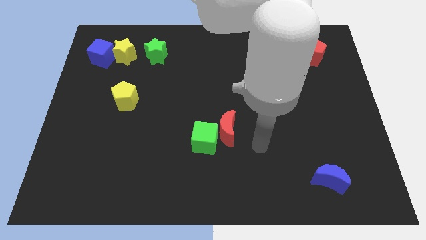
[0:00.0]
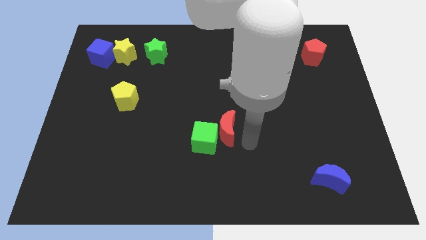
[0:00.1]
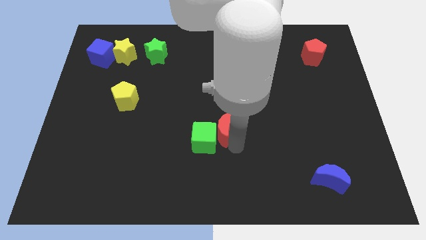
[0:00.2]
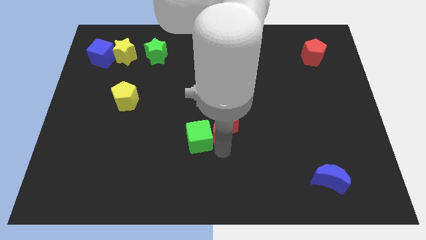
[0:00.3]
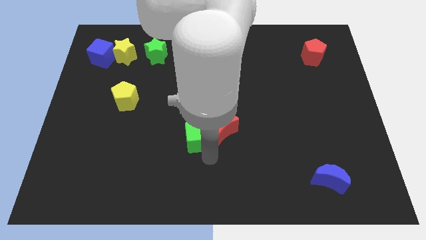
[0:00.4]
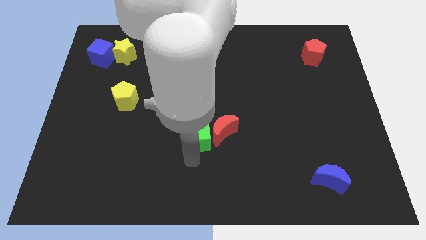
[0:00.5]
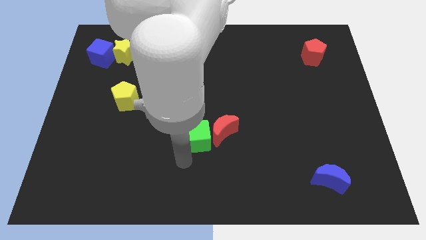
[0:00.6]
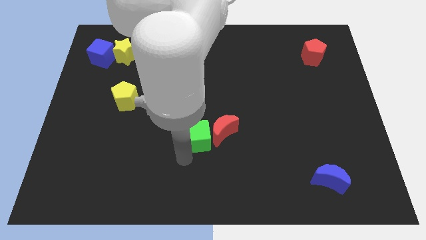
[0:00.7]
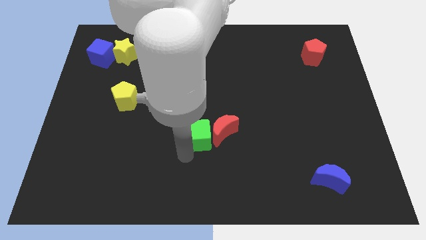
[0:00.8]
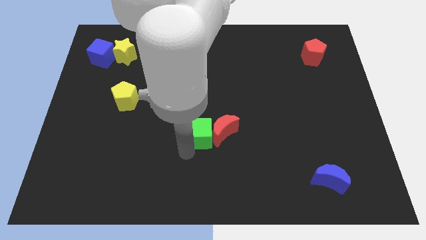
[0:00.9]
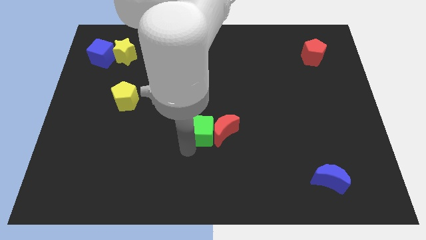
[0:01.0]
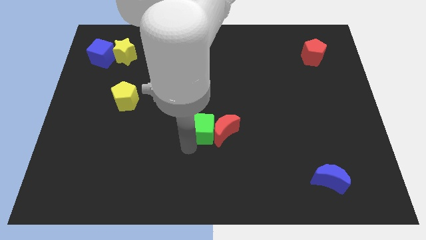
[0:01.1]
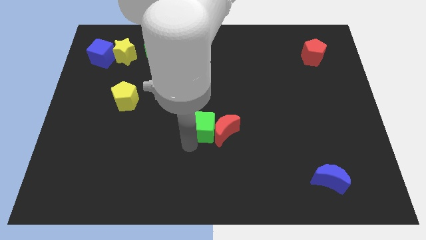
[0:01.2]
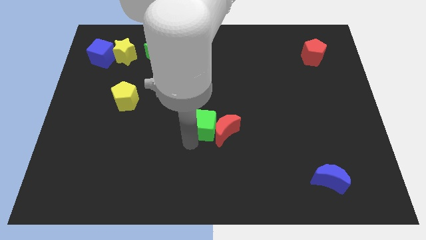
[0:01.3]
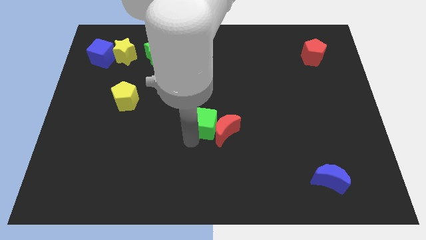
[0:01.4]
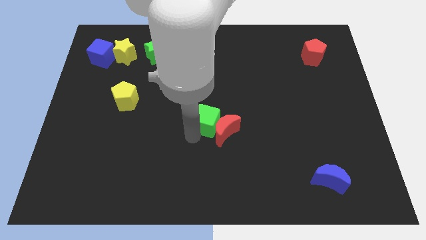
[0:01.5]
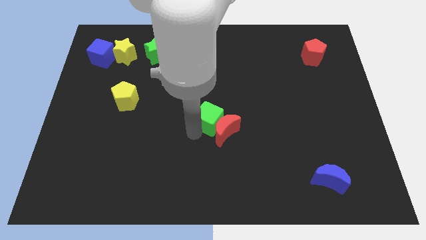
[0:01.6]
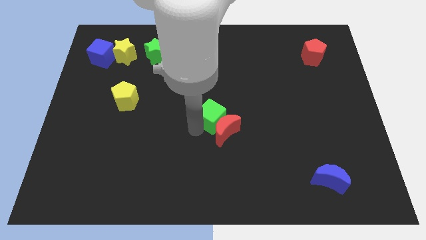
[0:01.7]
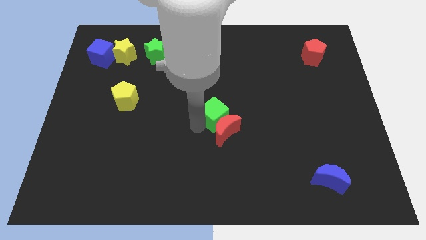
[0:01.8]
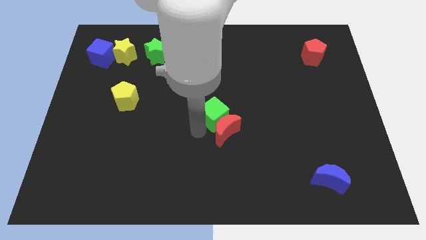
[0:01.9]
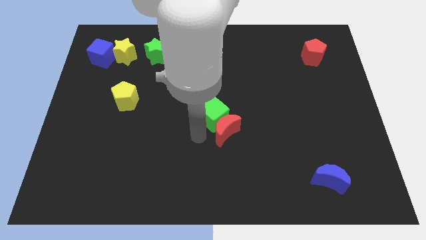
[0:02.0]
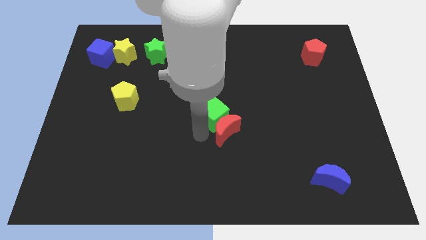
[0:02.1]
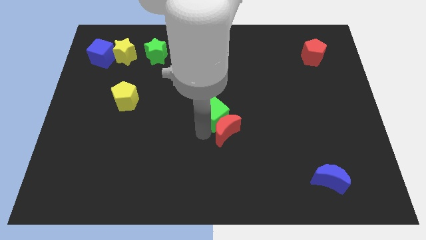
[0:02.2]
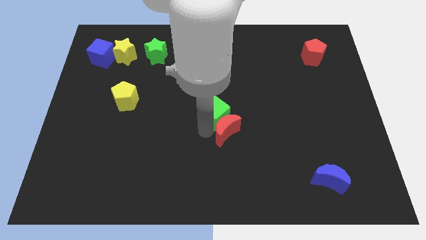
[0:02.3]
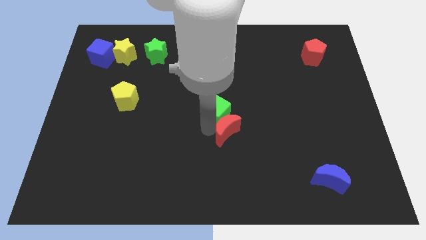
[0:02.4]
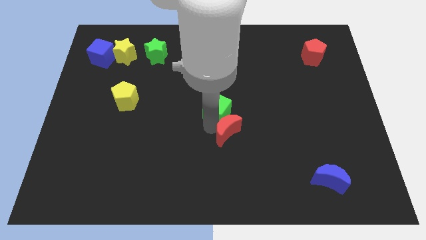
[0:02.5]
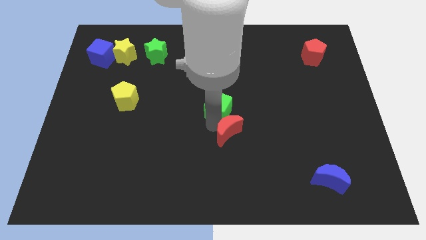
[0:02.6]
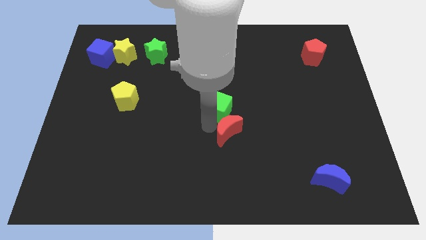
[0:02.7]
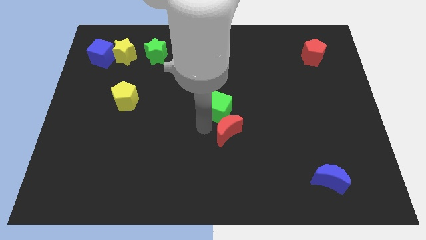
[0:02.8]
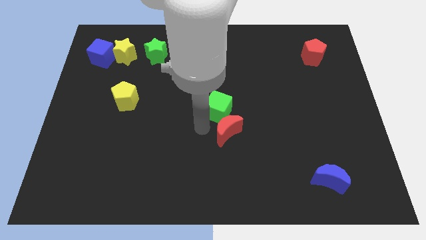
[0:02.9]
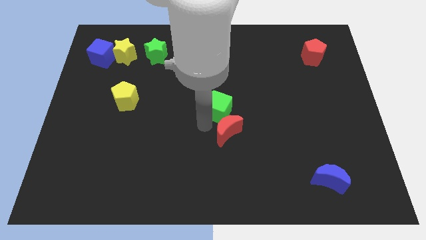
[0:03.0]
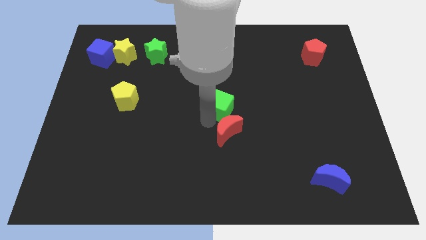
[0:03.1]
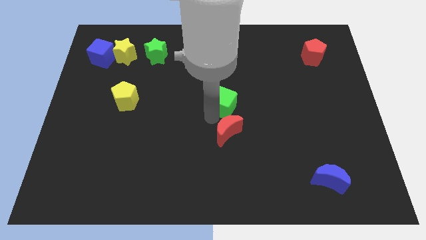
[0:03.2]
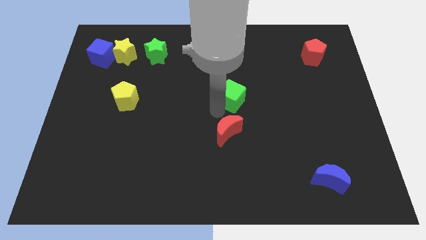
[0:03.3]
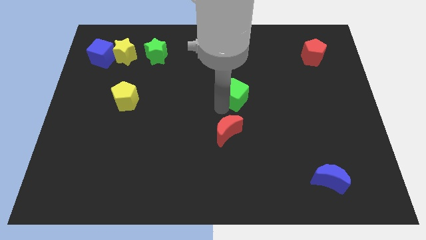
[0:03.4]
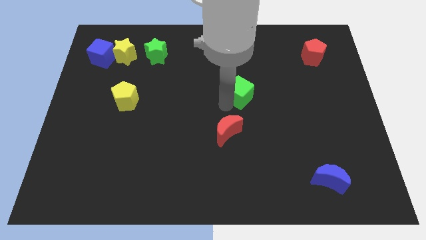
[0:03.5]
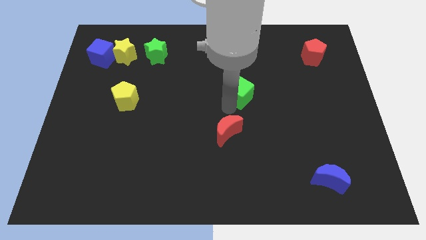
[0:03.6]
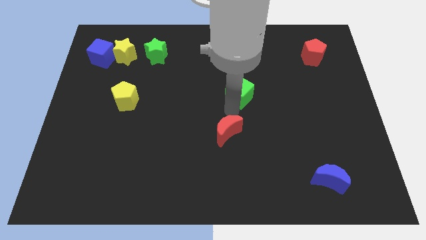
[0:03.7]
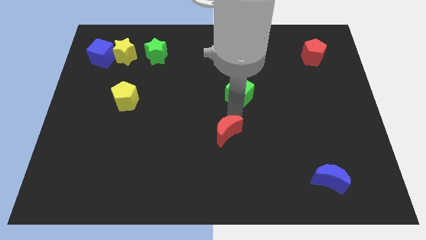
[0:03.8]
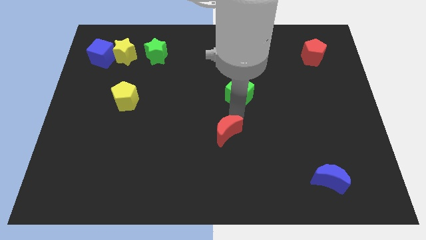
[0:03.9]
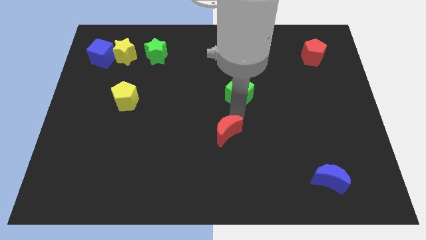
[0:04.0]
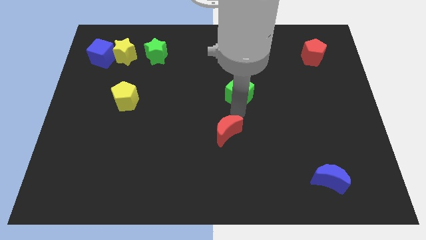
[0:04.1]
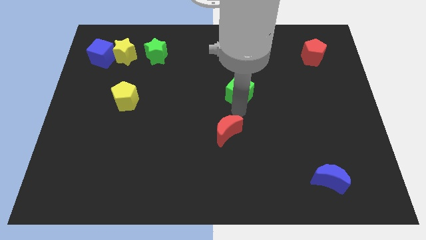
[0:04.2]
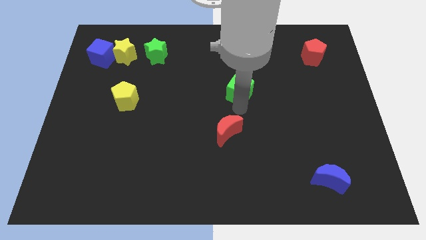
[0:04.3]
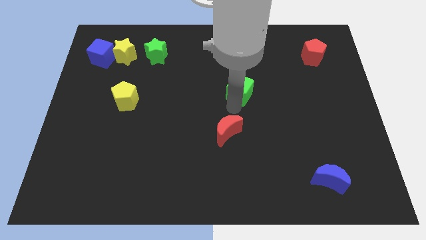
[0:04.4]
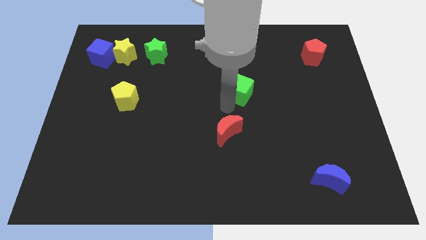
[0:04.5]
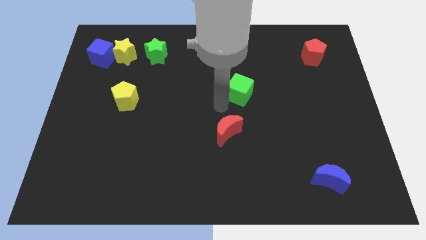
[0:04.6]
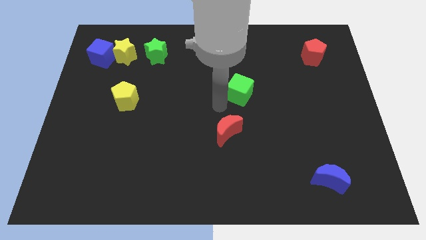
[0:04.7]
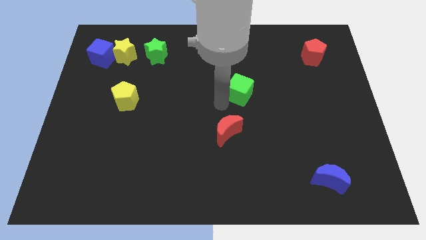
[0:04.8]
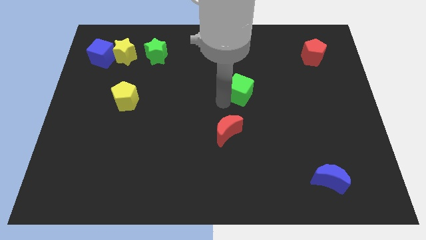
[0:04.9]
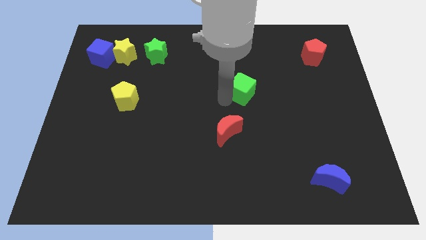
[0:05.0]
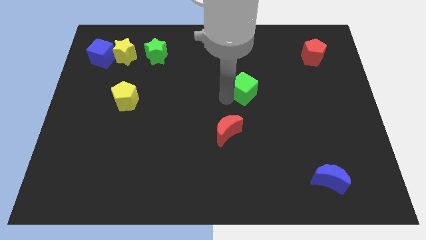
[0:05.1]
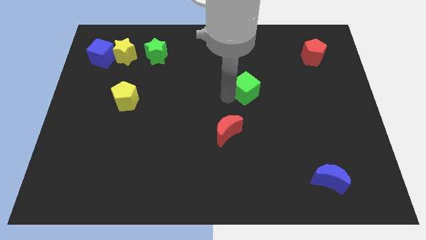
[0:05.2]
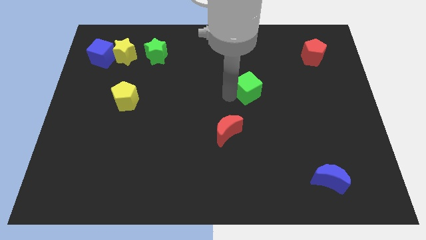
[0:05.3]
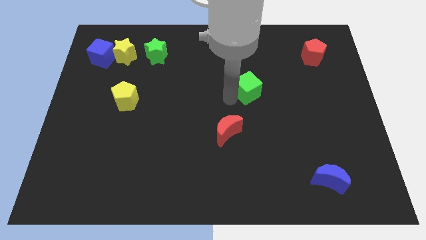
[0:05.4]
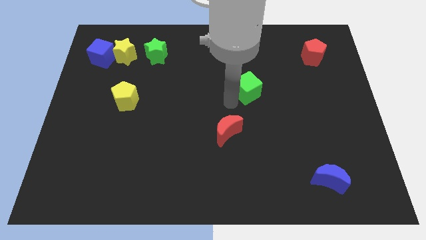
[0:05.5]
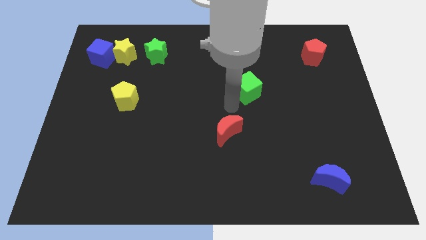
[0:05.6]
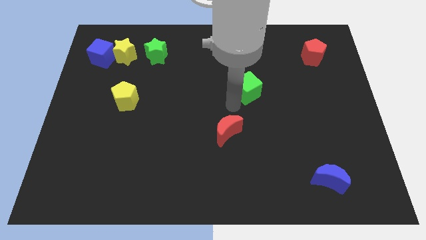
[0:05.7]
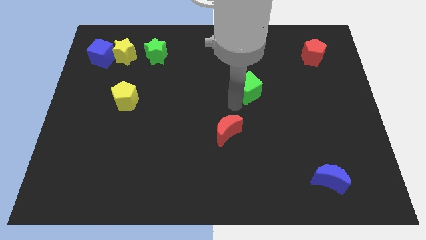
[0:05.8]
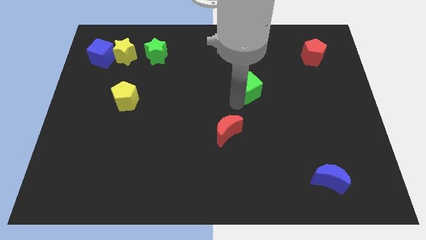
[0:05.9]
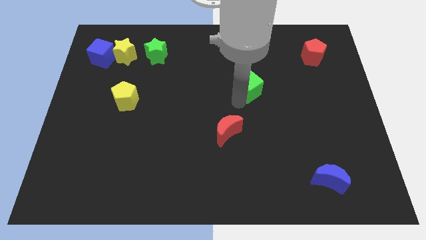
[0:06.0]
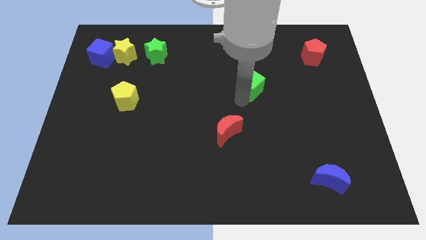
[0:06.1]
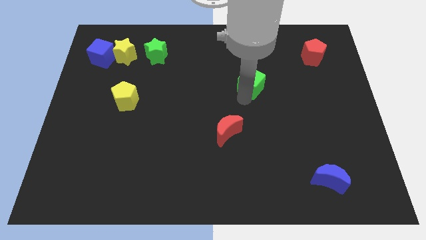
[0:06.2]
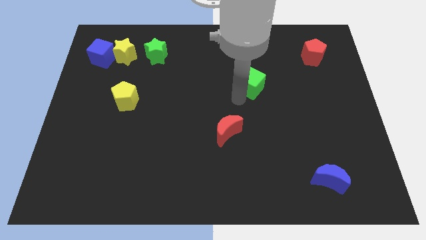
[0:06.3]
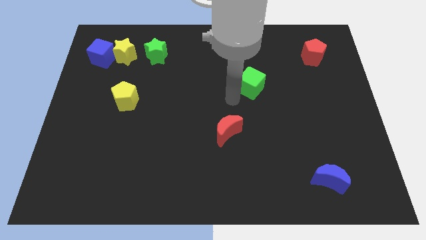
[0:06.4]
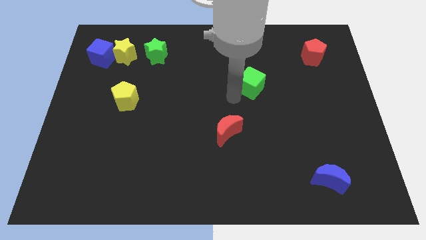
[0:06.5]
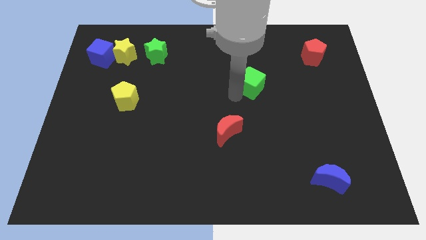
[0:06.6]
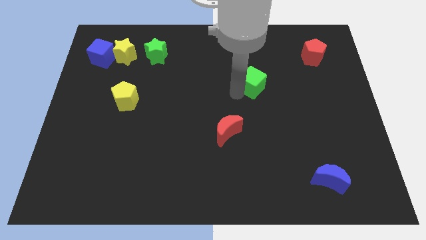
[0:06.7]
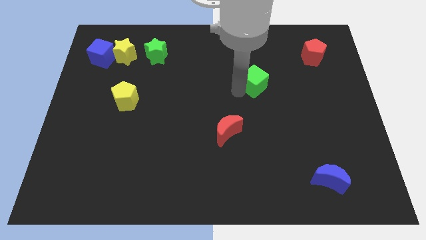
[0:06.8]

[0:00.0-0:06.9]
push the green cube upwards and then right

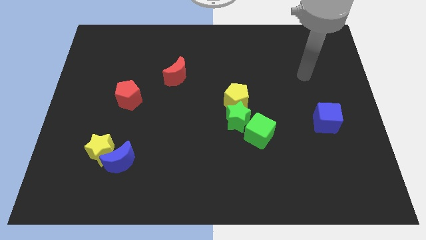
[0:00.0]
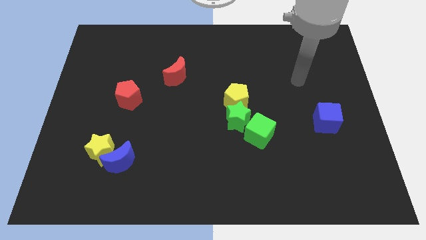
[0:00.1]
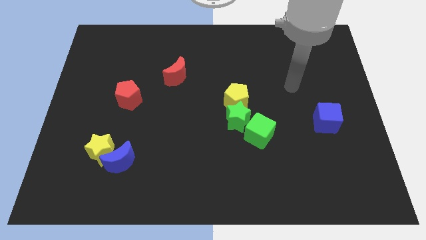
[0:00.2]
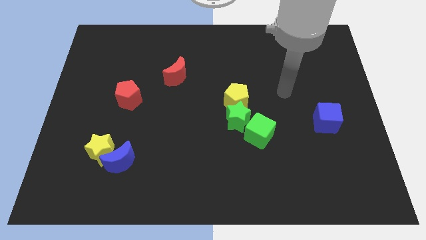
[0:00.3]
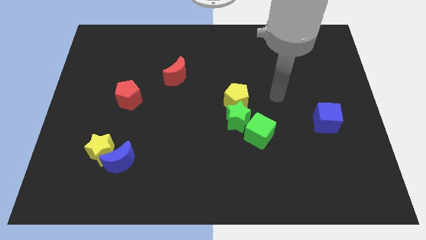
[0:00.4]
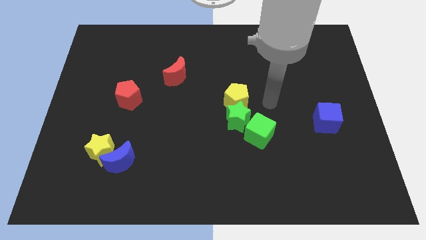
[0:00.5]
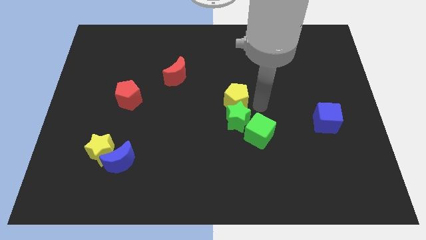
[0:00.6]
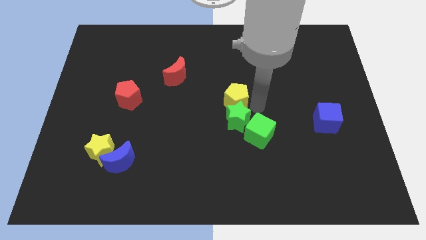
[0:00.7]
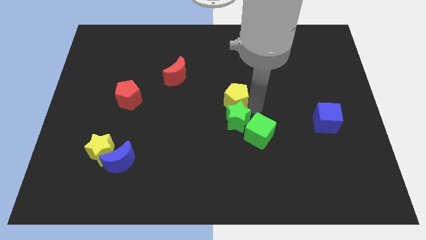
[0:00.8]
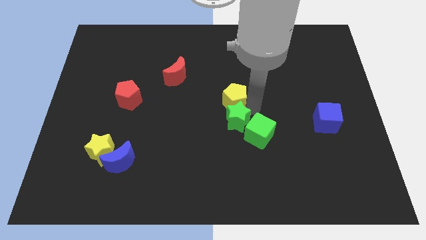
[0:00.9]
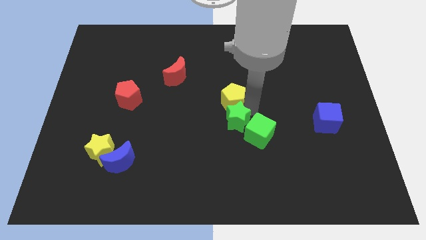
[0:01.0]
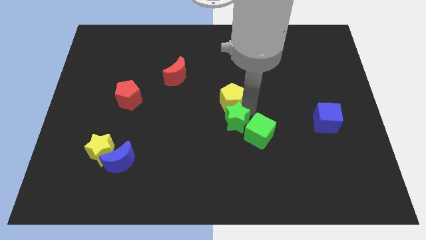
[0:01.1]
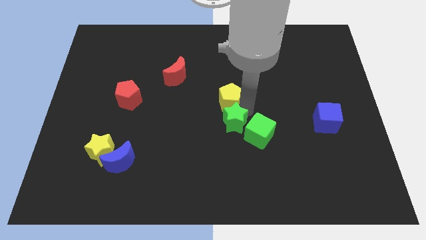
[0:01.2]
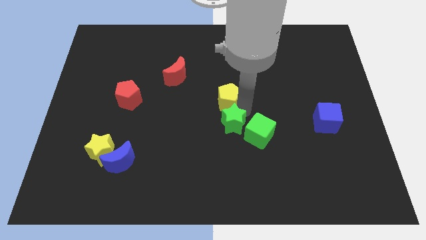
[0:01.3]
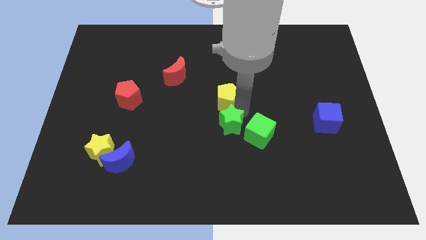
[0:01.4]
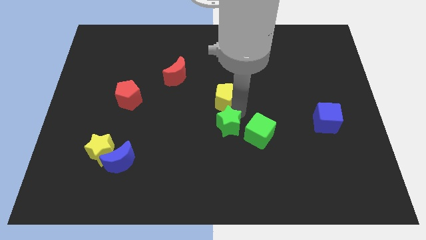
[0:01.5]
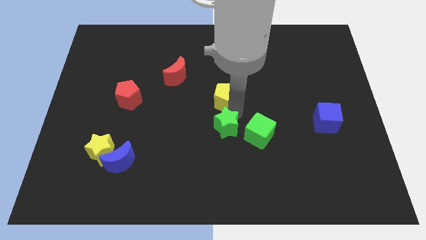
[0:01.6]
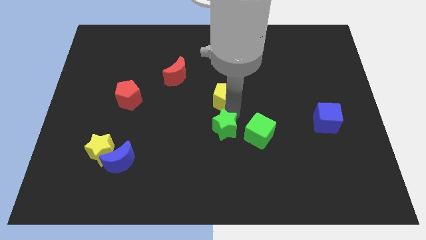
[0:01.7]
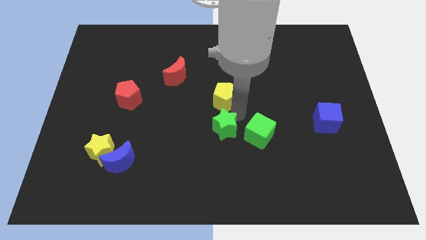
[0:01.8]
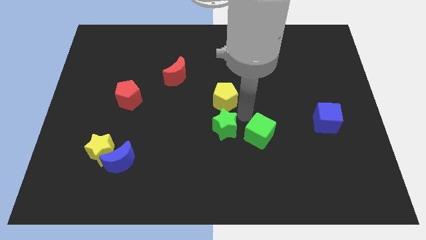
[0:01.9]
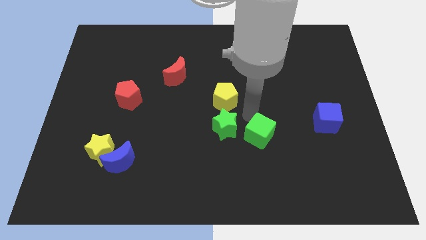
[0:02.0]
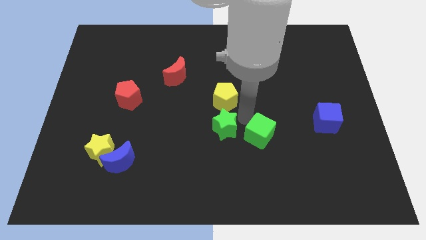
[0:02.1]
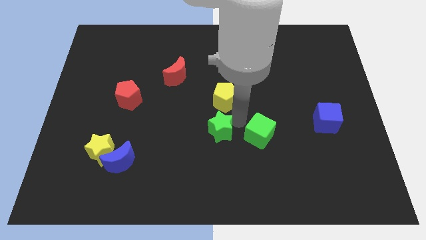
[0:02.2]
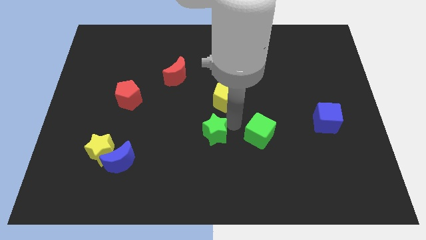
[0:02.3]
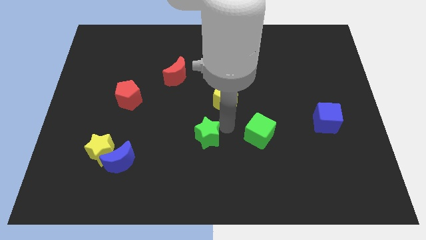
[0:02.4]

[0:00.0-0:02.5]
move the green star diagonally down and to the left slightly
